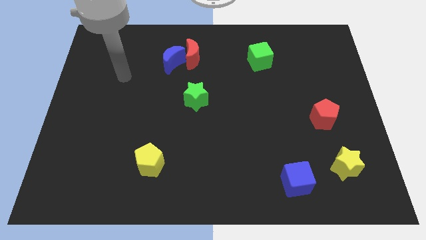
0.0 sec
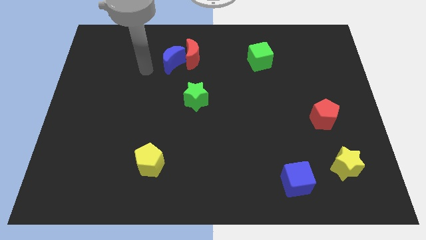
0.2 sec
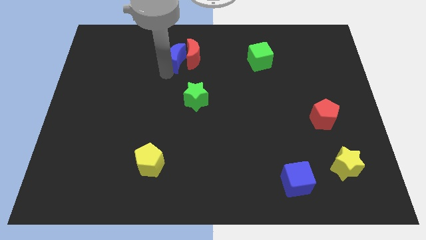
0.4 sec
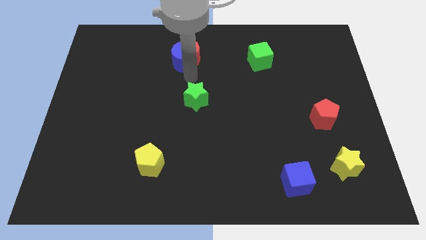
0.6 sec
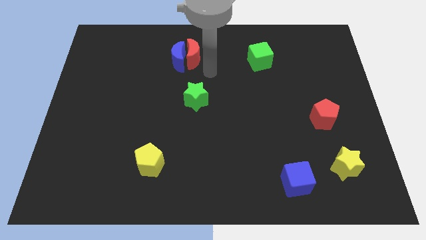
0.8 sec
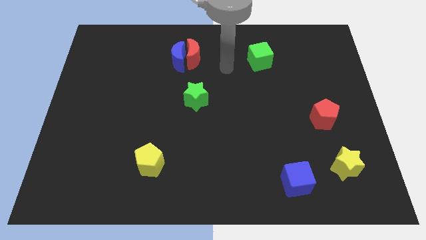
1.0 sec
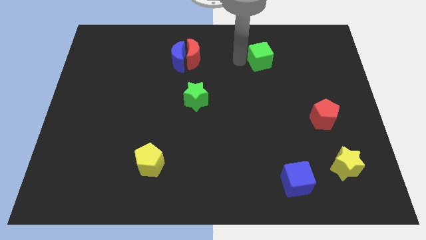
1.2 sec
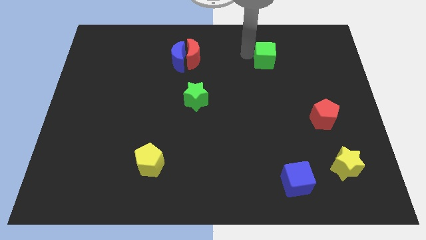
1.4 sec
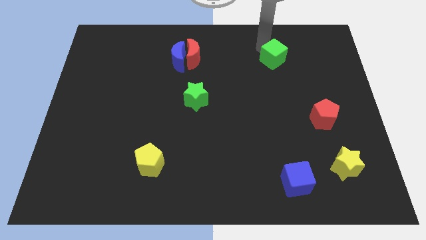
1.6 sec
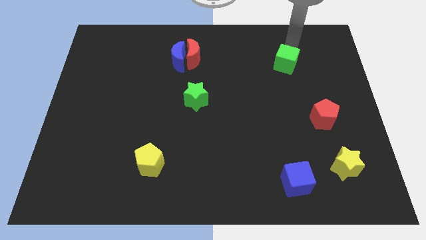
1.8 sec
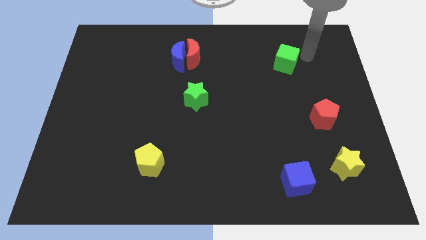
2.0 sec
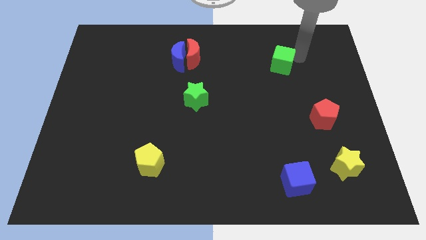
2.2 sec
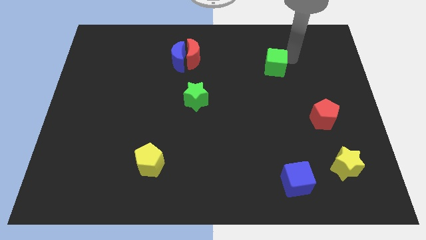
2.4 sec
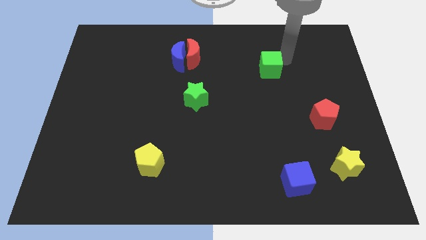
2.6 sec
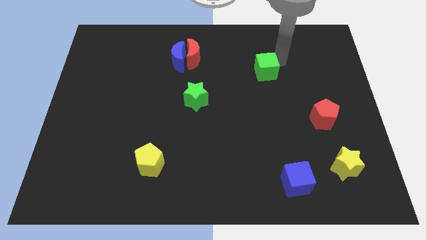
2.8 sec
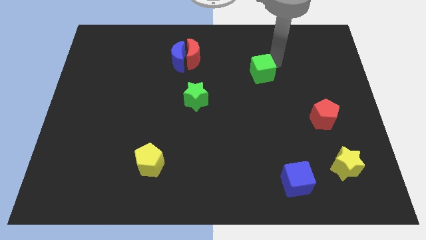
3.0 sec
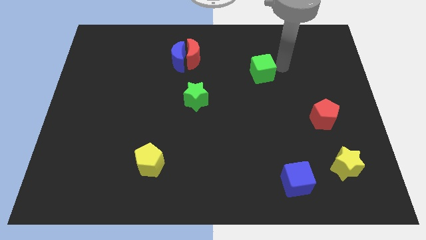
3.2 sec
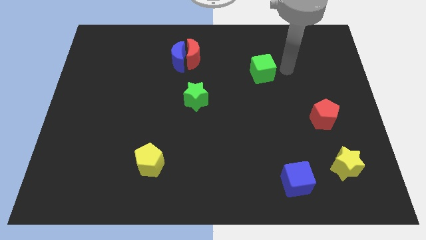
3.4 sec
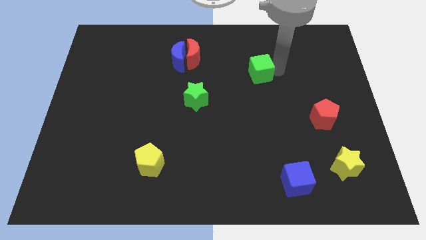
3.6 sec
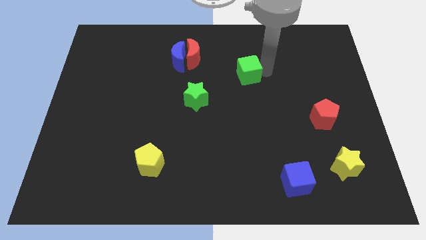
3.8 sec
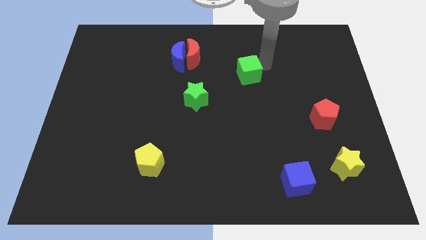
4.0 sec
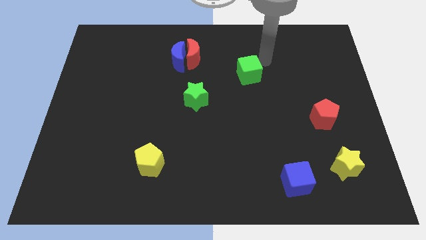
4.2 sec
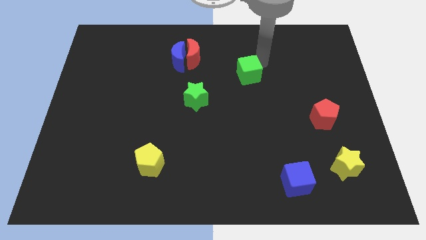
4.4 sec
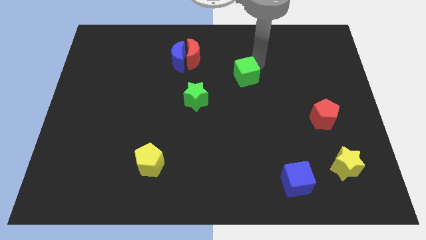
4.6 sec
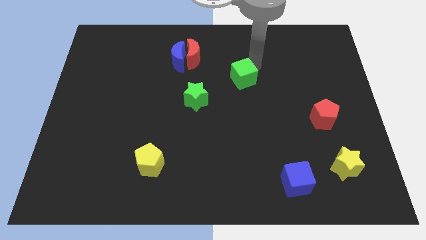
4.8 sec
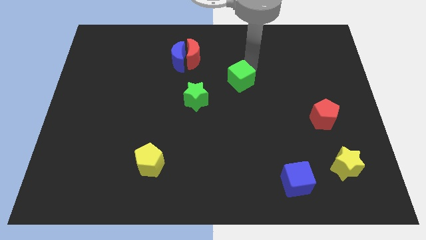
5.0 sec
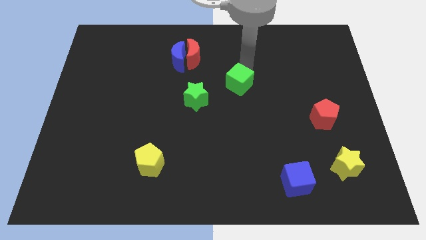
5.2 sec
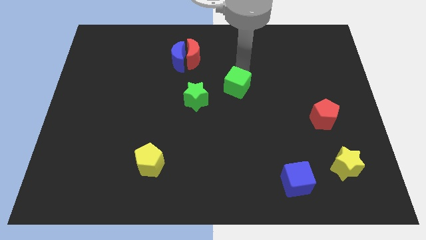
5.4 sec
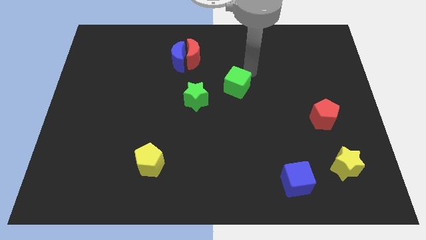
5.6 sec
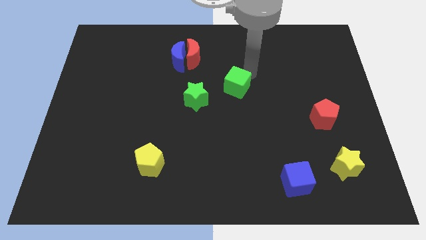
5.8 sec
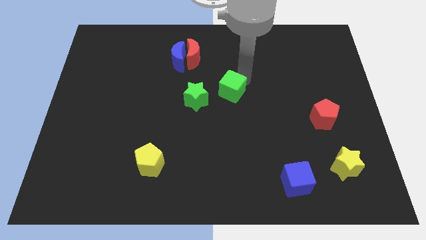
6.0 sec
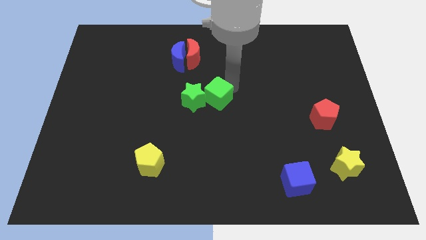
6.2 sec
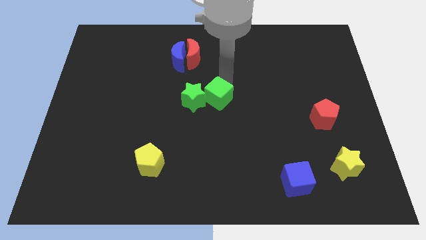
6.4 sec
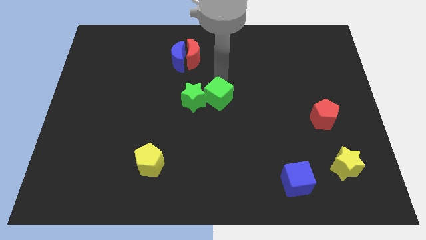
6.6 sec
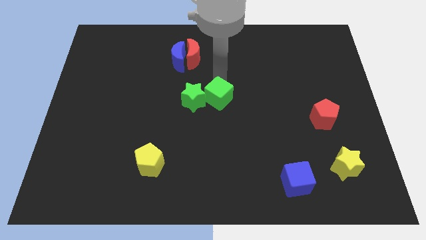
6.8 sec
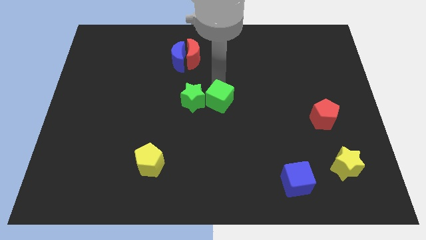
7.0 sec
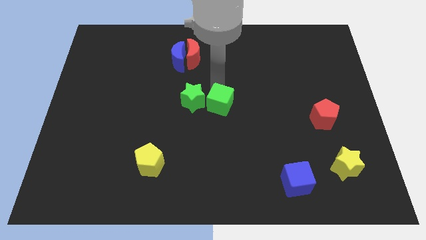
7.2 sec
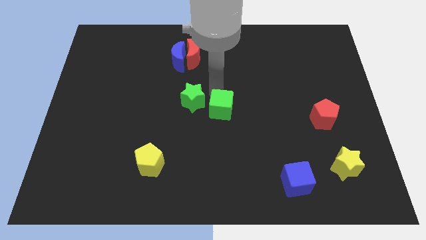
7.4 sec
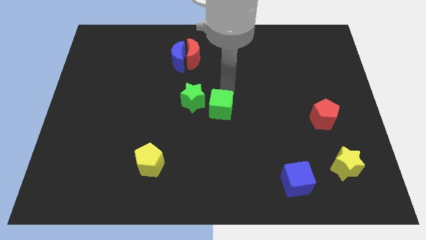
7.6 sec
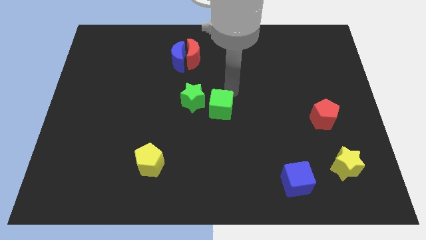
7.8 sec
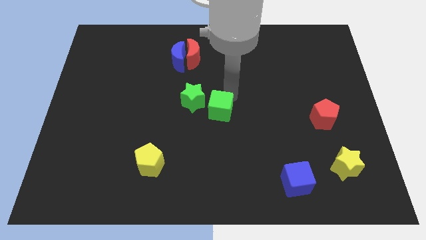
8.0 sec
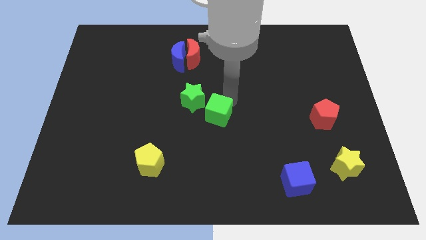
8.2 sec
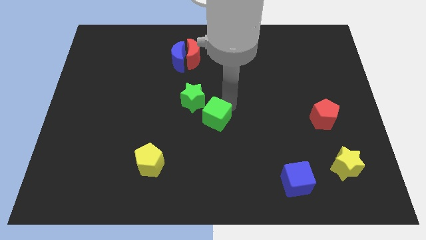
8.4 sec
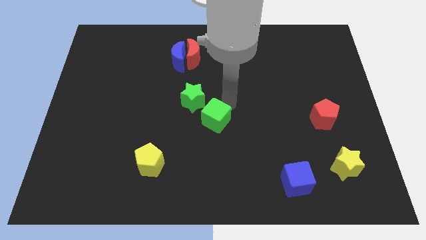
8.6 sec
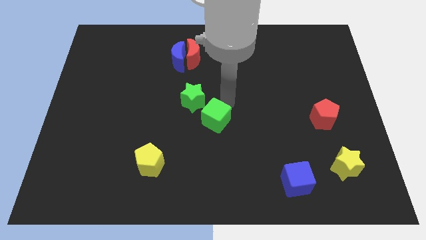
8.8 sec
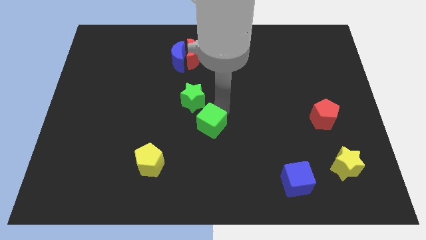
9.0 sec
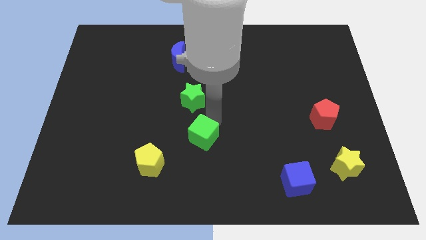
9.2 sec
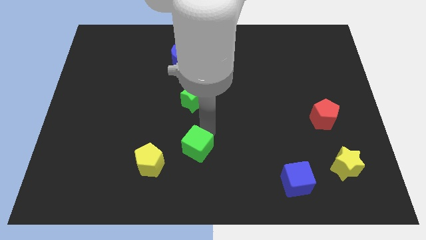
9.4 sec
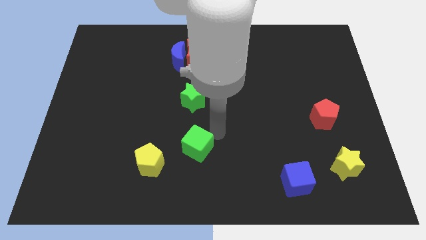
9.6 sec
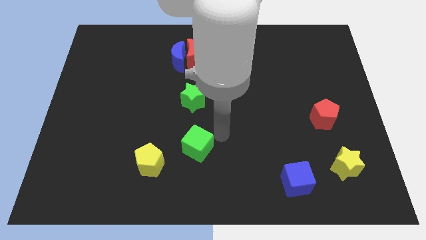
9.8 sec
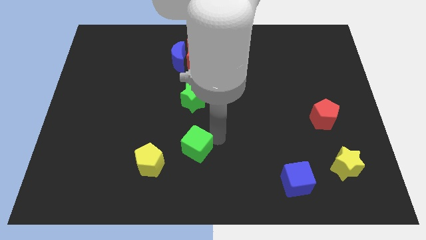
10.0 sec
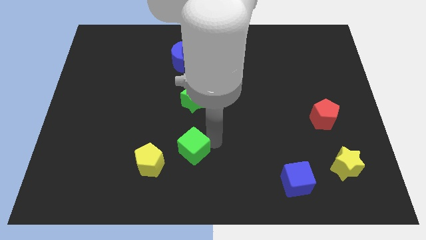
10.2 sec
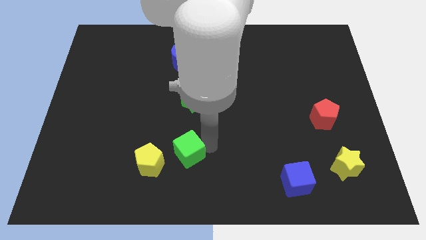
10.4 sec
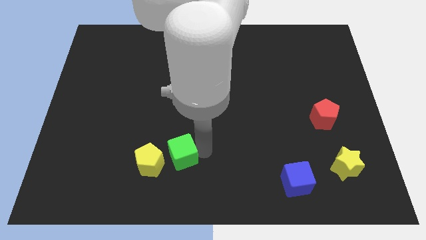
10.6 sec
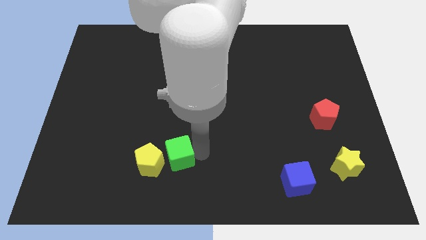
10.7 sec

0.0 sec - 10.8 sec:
push the green cube towards the yellow pentagon

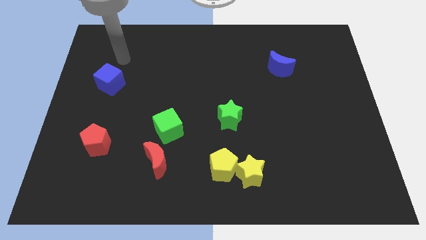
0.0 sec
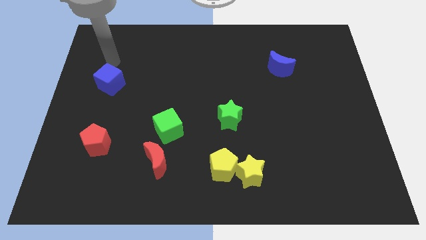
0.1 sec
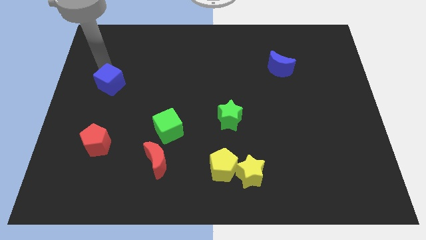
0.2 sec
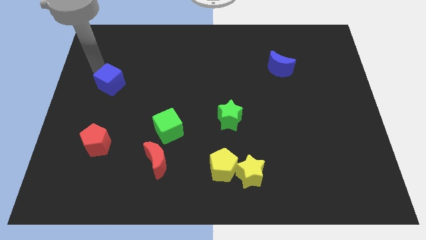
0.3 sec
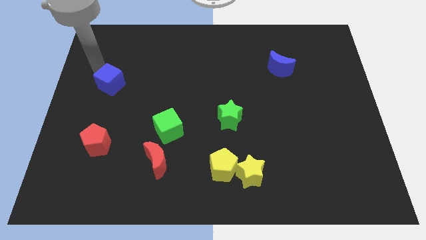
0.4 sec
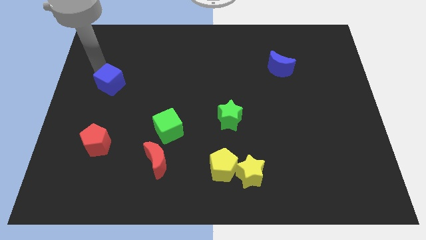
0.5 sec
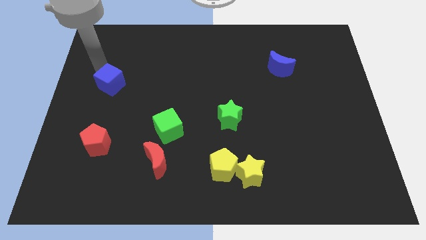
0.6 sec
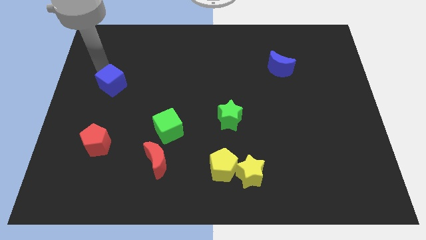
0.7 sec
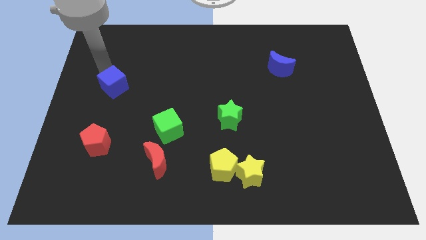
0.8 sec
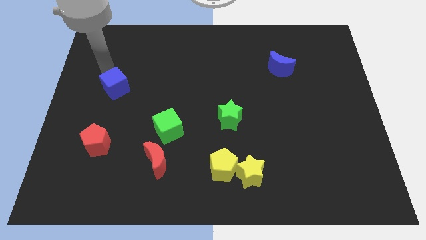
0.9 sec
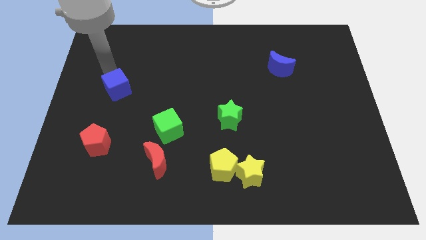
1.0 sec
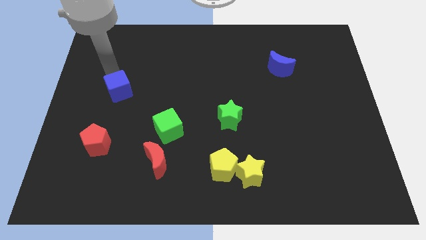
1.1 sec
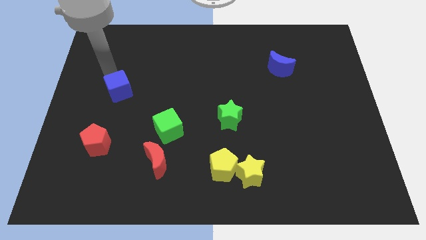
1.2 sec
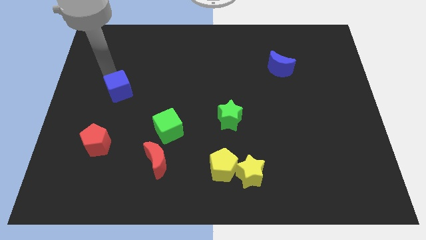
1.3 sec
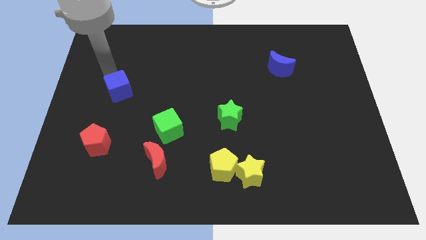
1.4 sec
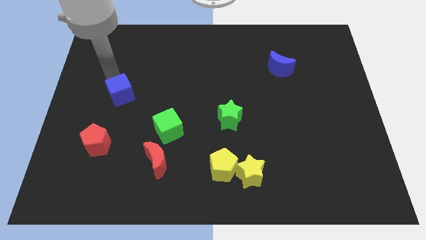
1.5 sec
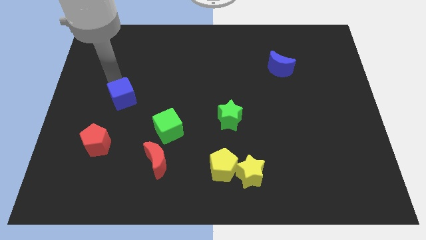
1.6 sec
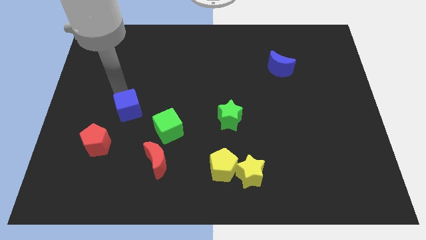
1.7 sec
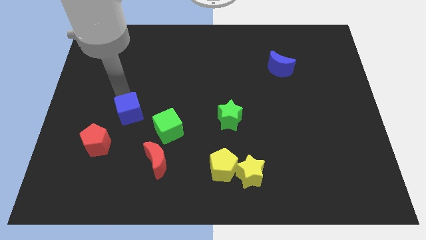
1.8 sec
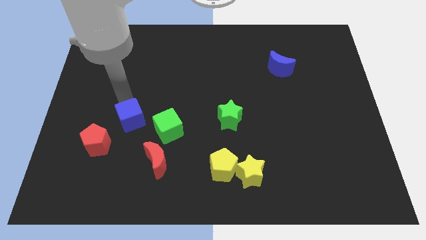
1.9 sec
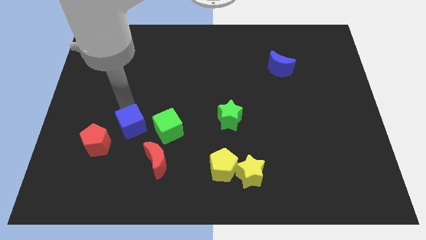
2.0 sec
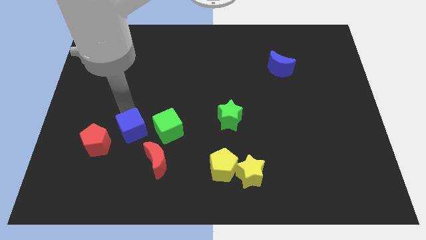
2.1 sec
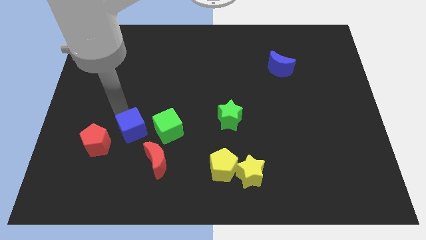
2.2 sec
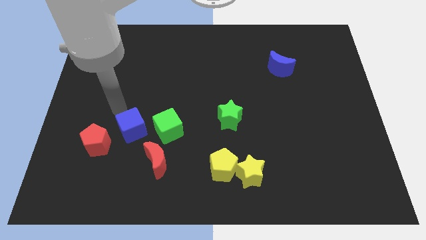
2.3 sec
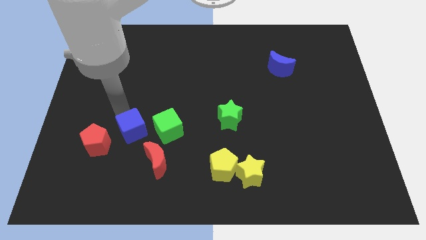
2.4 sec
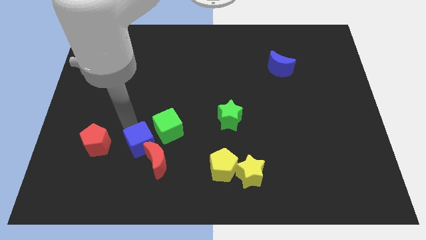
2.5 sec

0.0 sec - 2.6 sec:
slide the blue cube towards the red moon
